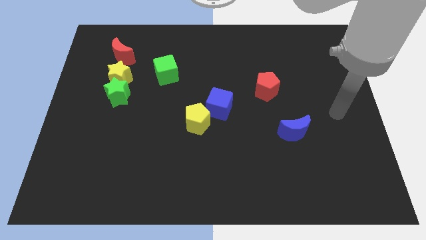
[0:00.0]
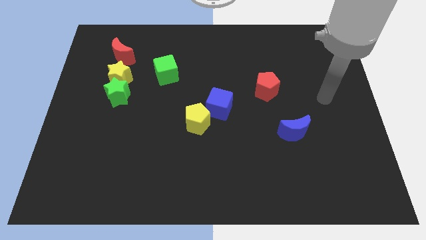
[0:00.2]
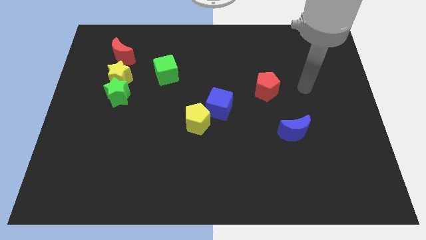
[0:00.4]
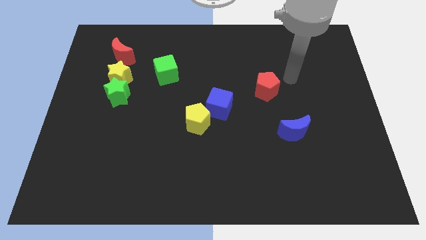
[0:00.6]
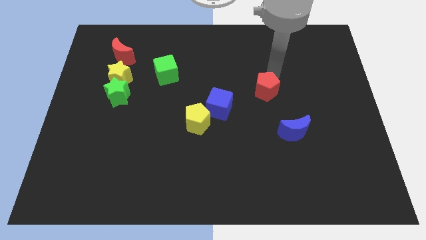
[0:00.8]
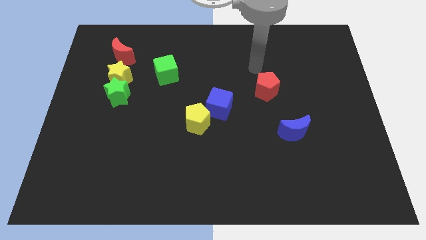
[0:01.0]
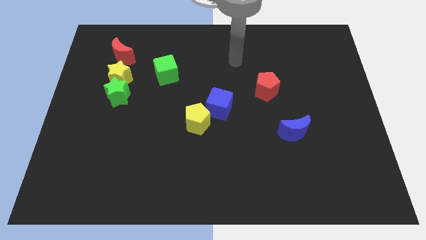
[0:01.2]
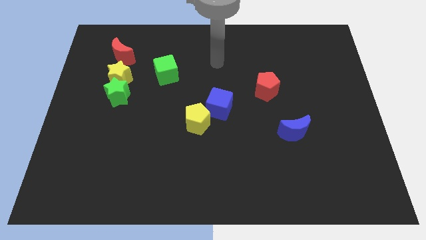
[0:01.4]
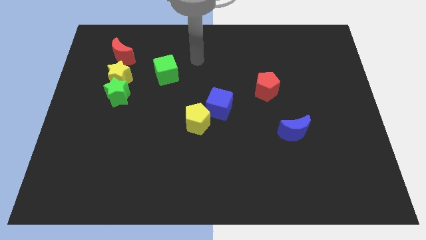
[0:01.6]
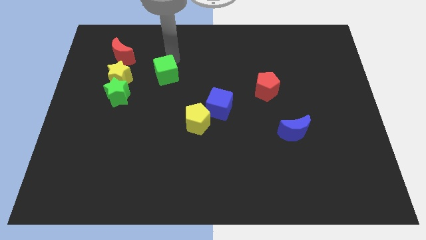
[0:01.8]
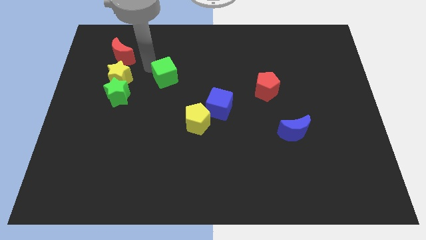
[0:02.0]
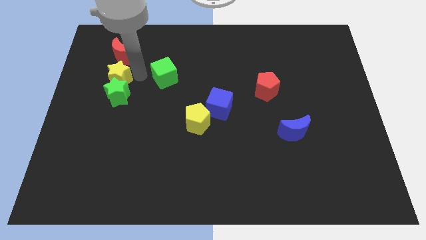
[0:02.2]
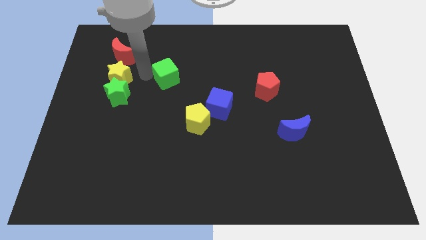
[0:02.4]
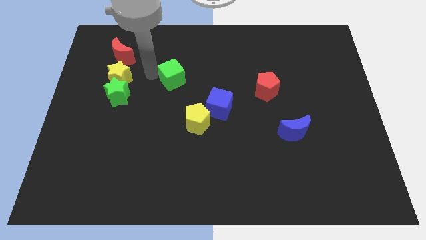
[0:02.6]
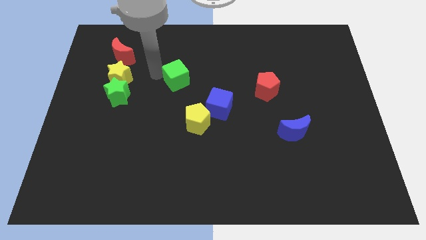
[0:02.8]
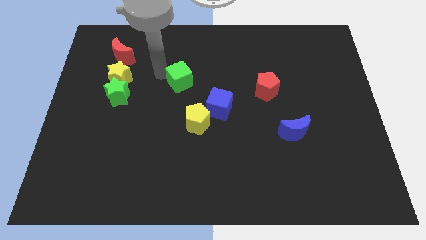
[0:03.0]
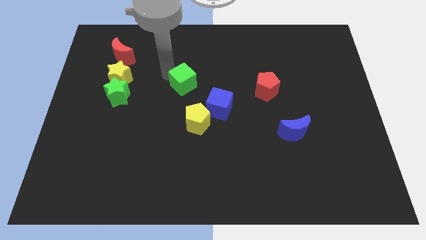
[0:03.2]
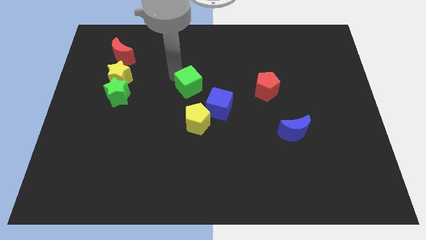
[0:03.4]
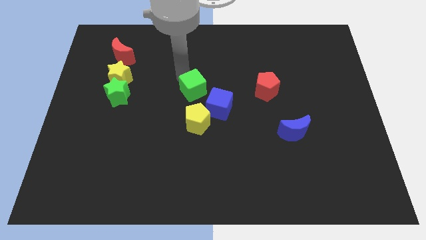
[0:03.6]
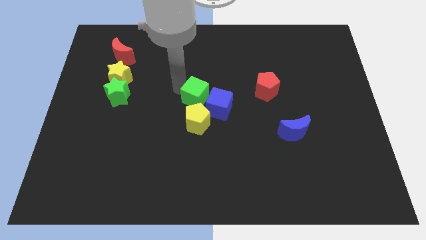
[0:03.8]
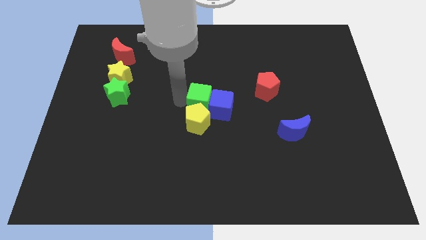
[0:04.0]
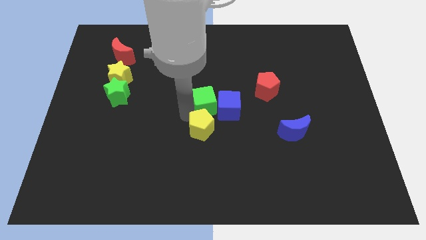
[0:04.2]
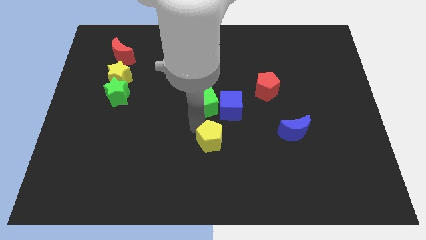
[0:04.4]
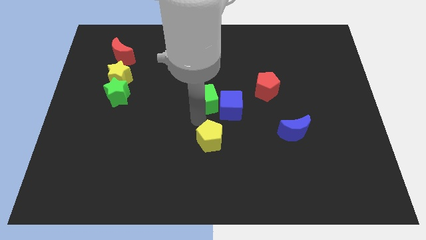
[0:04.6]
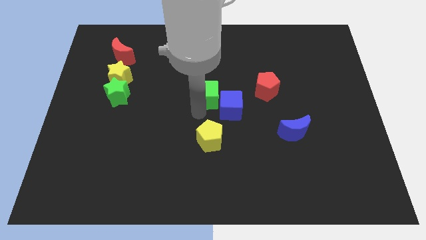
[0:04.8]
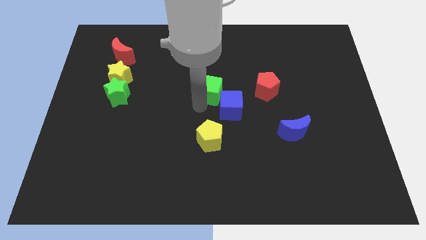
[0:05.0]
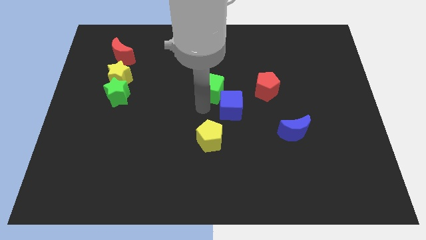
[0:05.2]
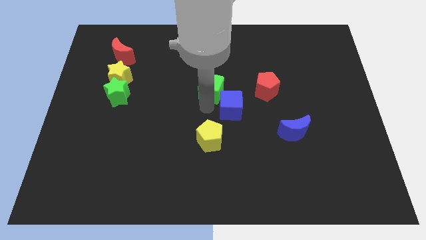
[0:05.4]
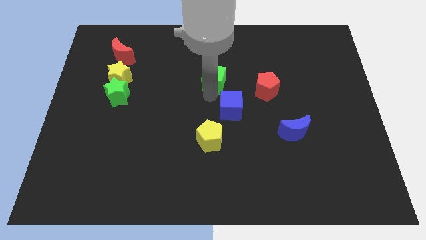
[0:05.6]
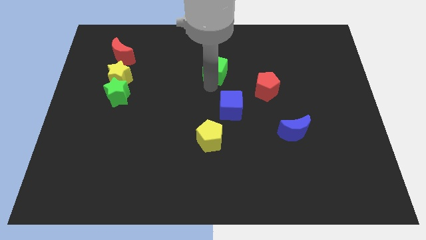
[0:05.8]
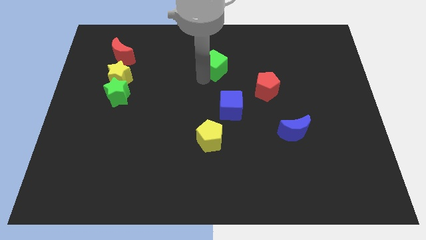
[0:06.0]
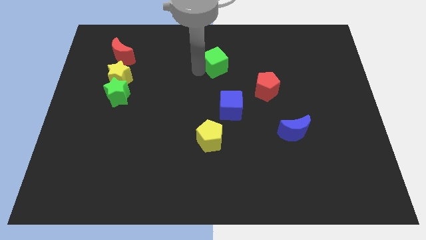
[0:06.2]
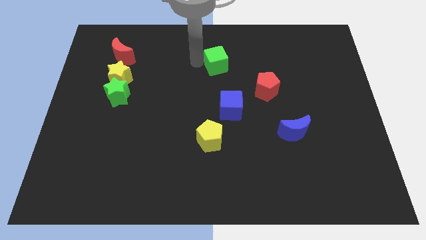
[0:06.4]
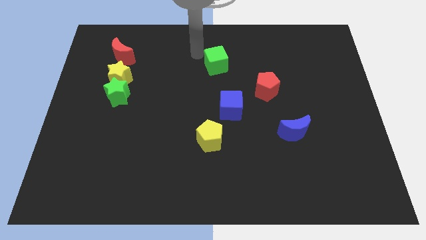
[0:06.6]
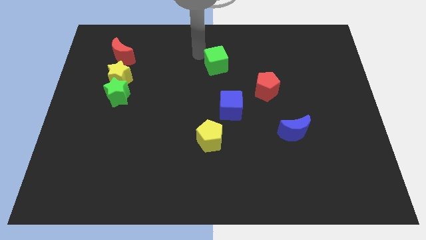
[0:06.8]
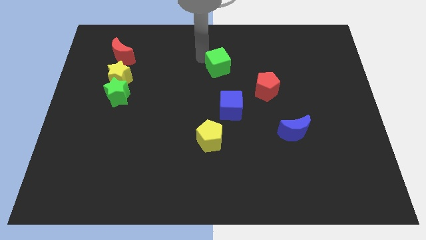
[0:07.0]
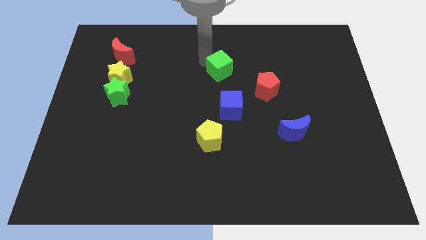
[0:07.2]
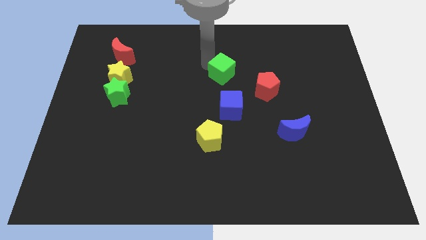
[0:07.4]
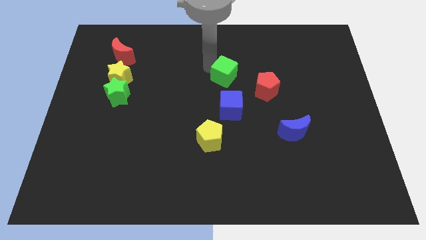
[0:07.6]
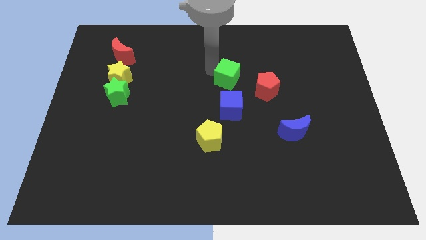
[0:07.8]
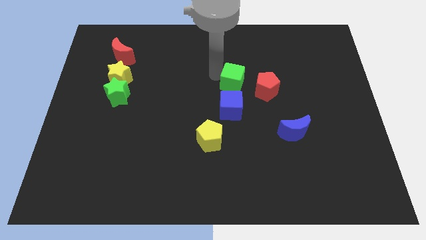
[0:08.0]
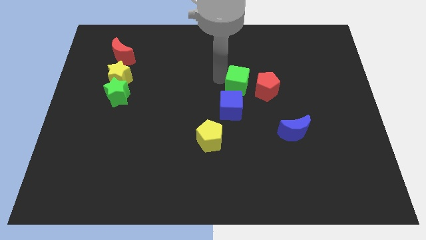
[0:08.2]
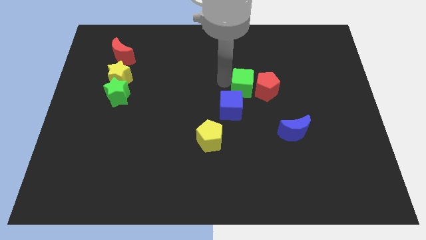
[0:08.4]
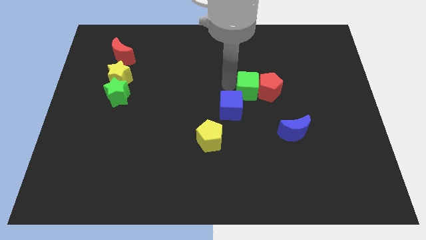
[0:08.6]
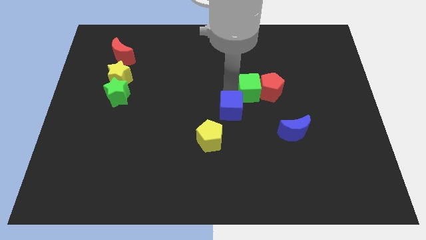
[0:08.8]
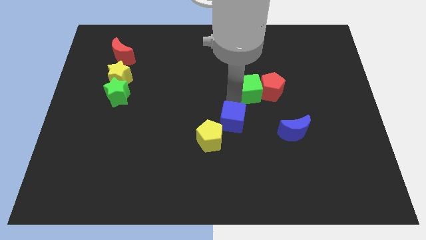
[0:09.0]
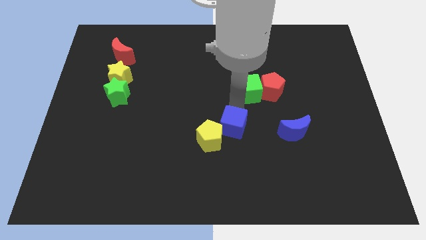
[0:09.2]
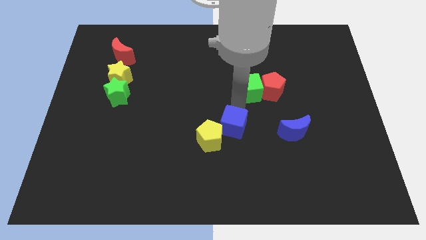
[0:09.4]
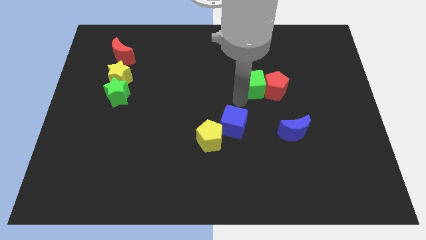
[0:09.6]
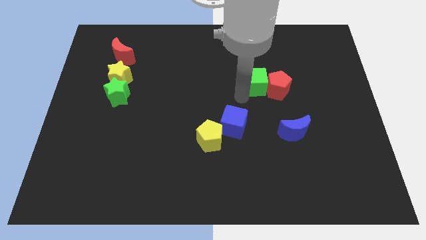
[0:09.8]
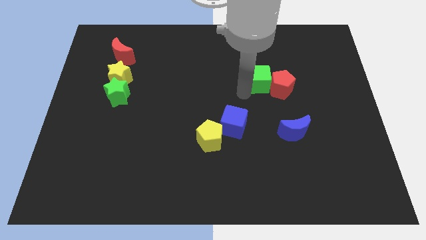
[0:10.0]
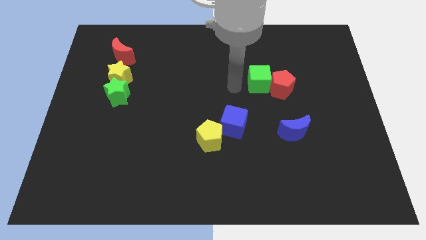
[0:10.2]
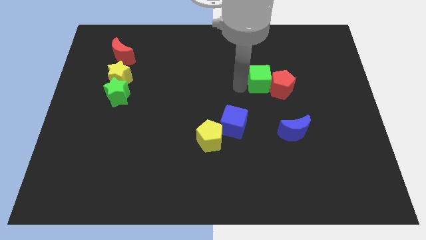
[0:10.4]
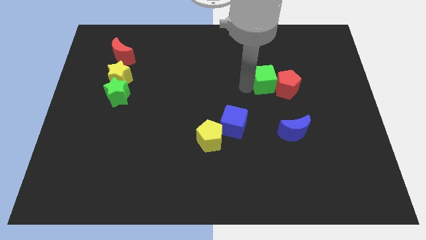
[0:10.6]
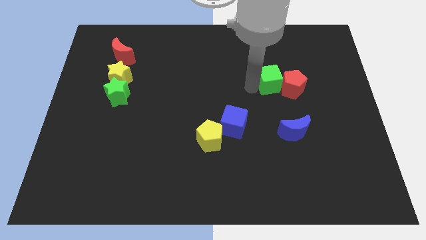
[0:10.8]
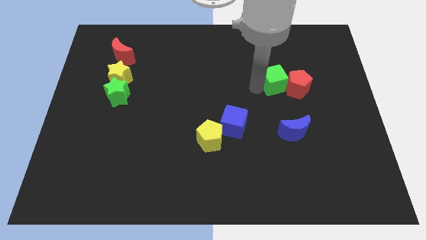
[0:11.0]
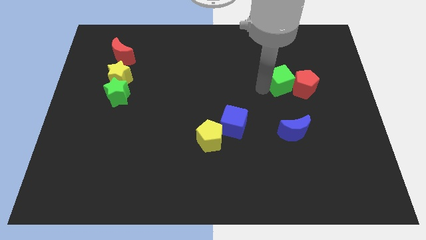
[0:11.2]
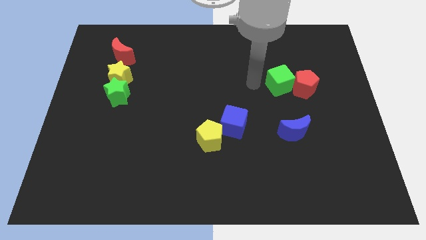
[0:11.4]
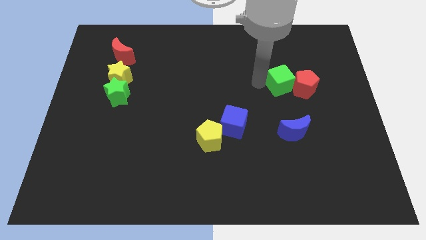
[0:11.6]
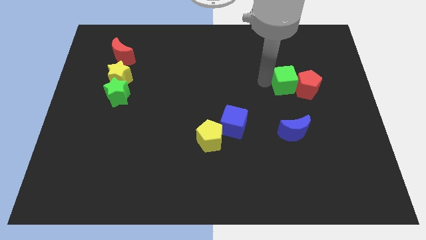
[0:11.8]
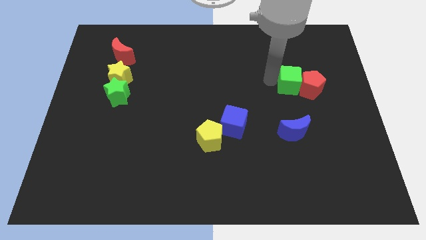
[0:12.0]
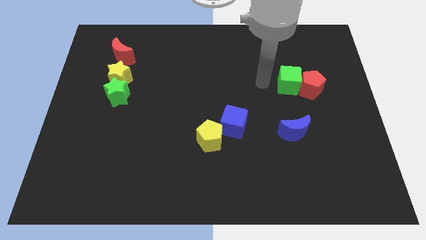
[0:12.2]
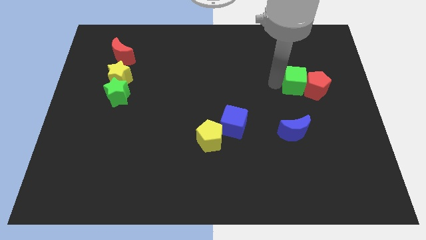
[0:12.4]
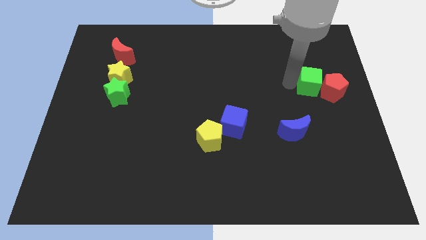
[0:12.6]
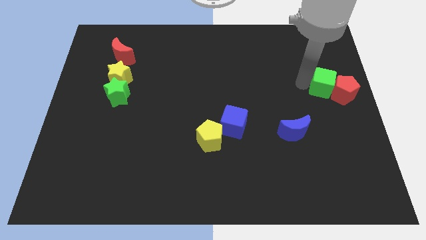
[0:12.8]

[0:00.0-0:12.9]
push the green cube to the right side

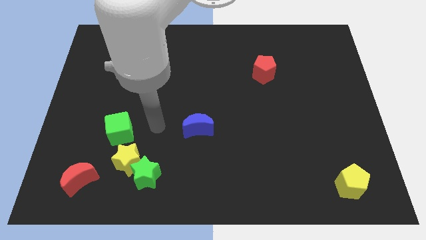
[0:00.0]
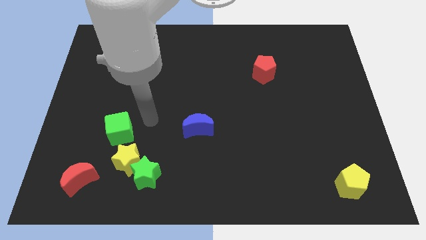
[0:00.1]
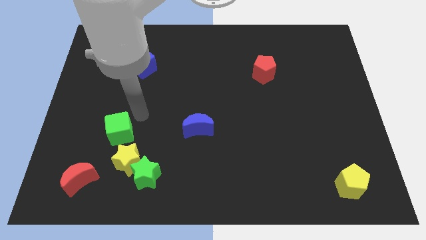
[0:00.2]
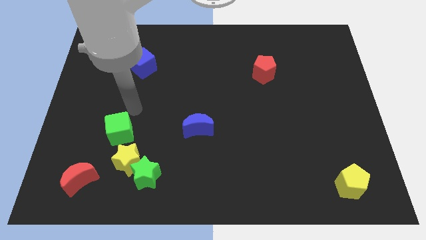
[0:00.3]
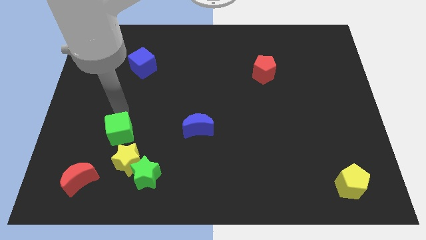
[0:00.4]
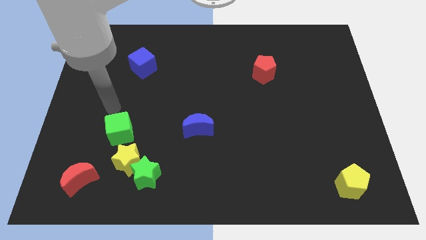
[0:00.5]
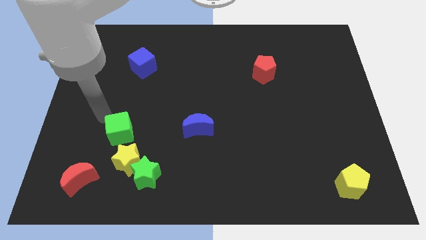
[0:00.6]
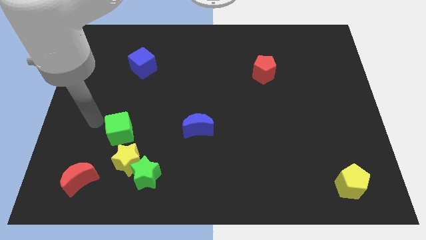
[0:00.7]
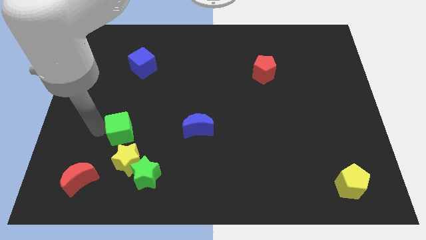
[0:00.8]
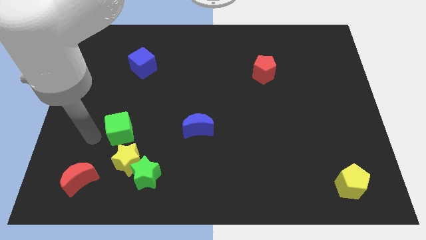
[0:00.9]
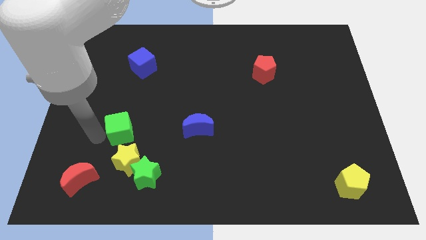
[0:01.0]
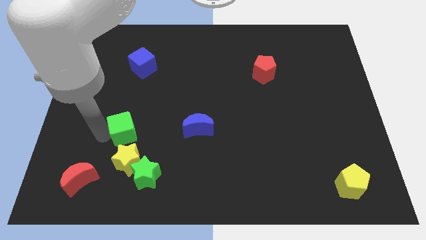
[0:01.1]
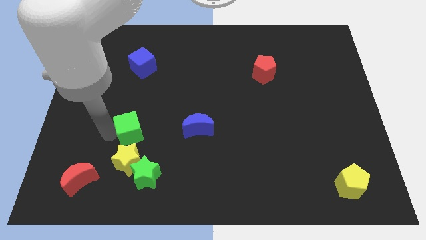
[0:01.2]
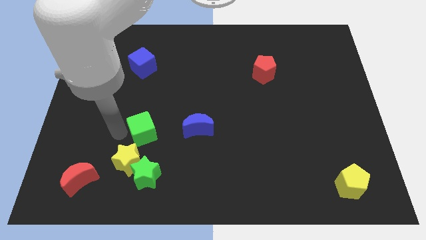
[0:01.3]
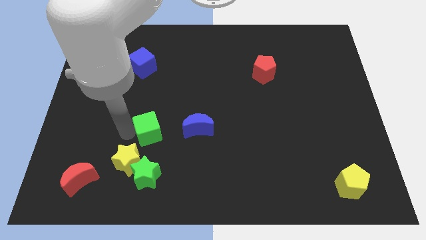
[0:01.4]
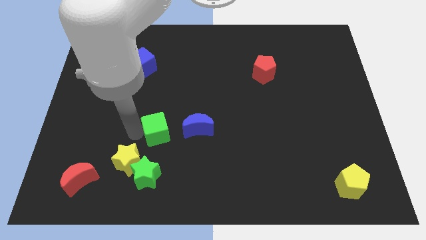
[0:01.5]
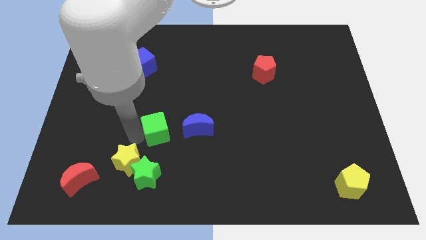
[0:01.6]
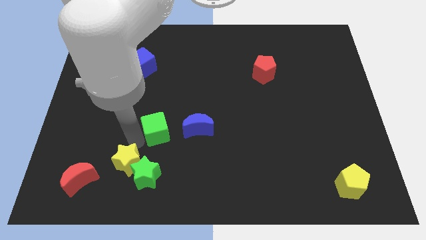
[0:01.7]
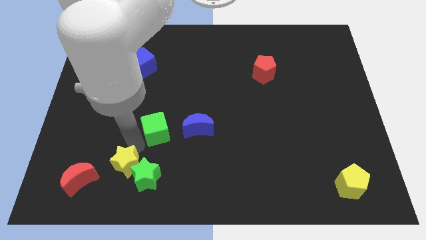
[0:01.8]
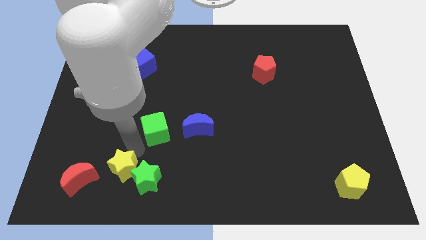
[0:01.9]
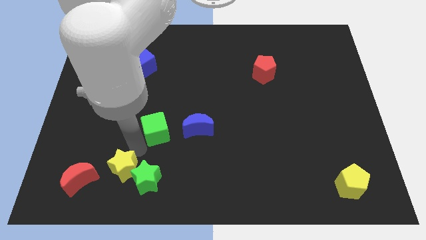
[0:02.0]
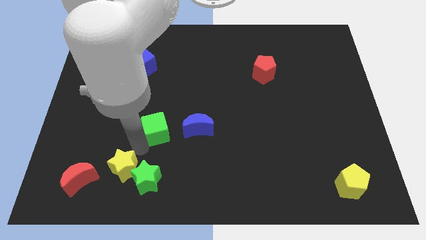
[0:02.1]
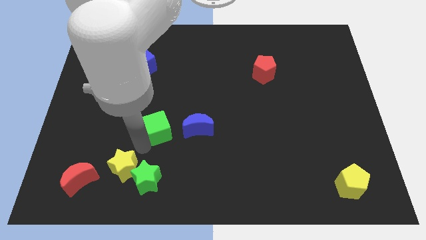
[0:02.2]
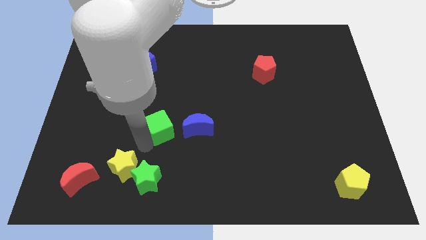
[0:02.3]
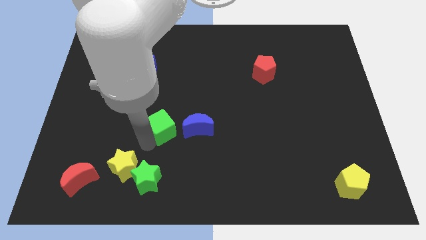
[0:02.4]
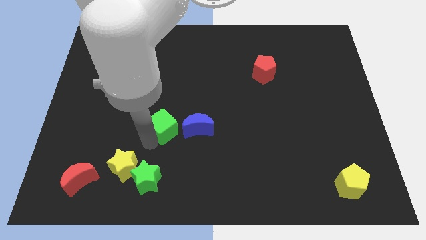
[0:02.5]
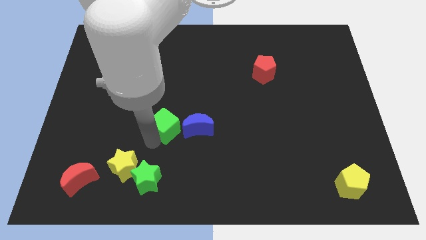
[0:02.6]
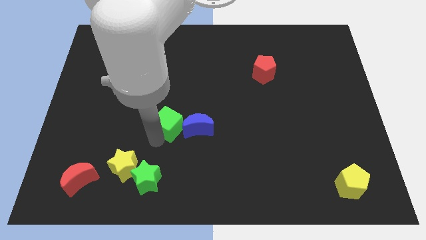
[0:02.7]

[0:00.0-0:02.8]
push the green cube to the center
